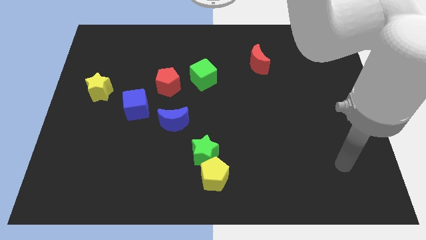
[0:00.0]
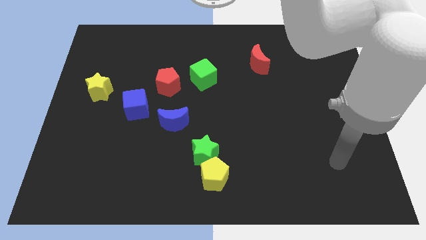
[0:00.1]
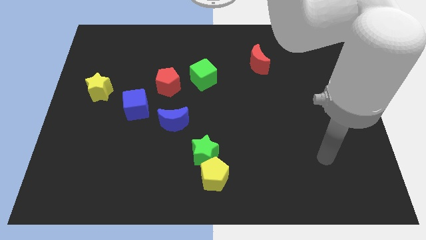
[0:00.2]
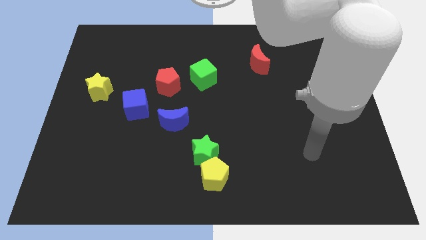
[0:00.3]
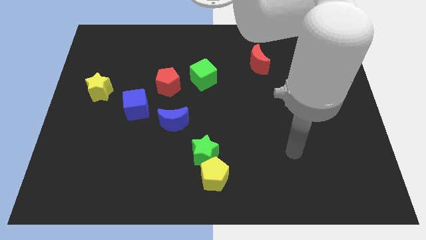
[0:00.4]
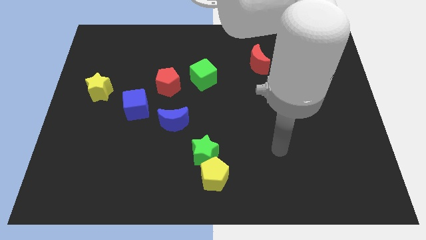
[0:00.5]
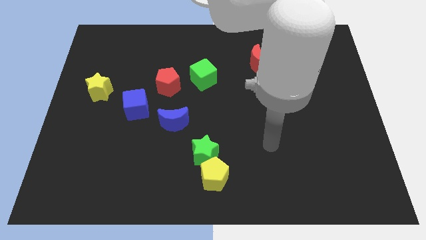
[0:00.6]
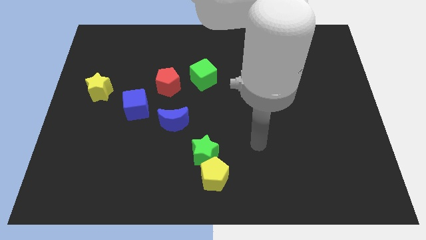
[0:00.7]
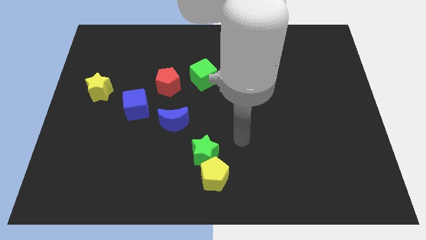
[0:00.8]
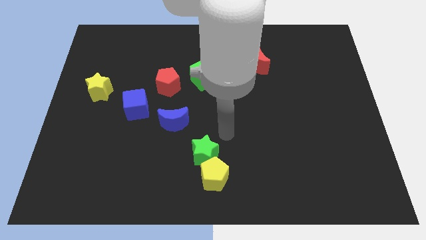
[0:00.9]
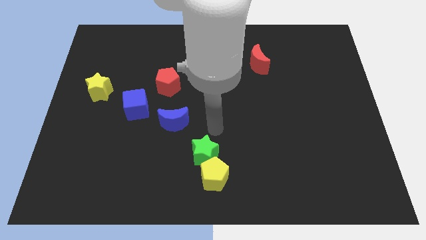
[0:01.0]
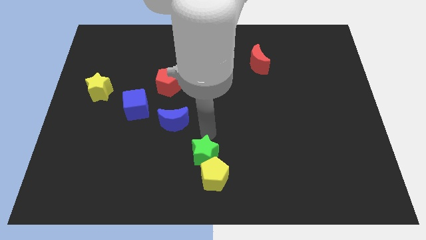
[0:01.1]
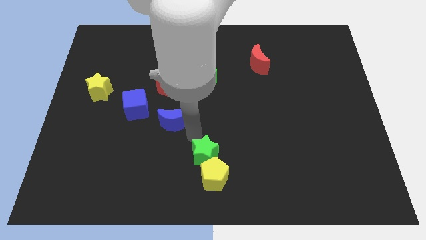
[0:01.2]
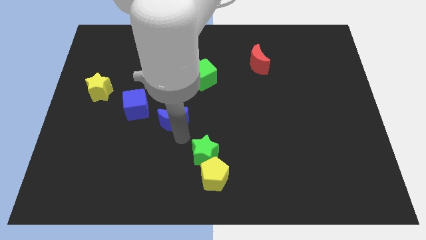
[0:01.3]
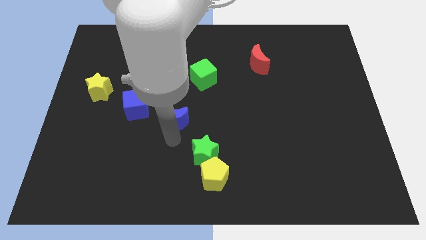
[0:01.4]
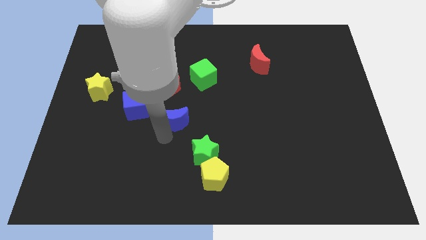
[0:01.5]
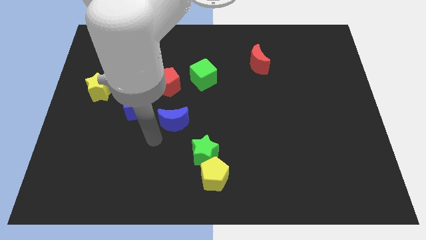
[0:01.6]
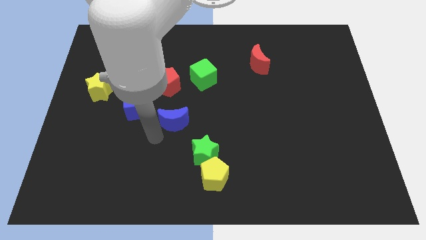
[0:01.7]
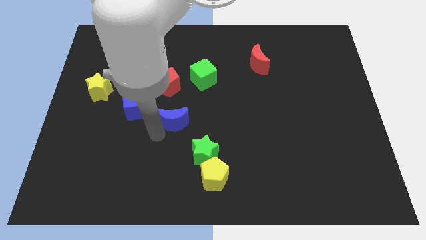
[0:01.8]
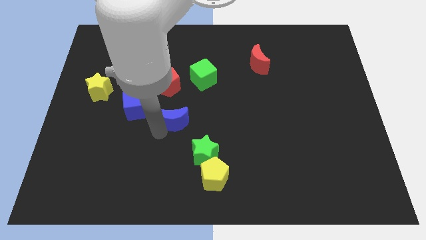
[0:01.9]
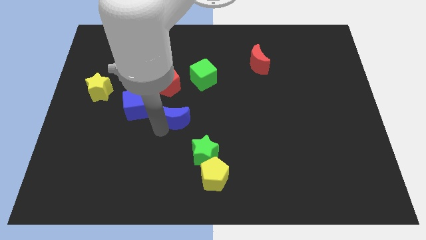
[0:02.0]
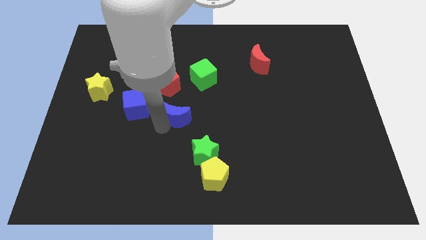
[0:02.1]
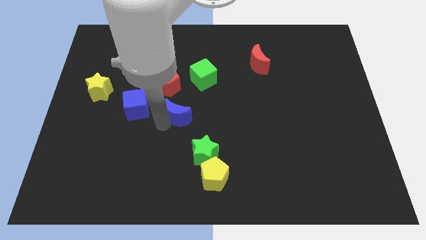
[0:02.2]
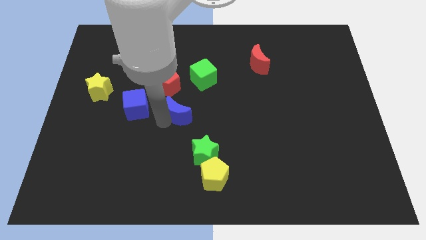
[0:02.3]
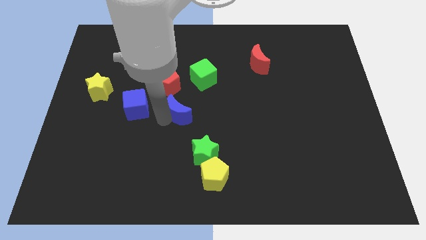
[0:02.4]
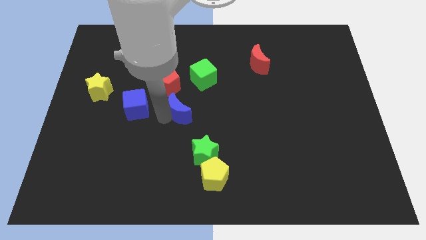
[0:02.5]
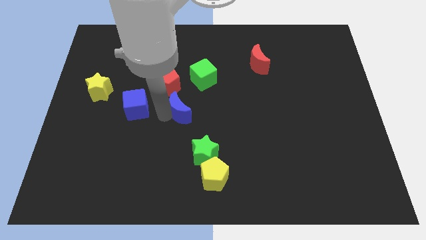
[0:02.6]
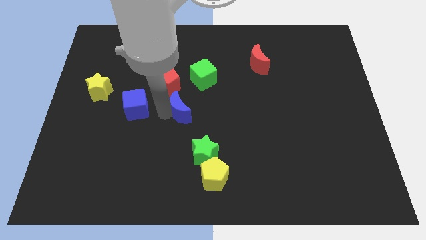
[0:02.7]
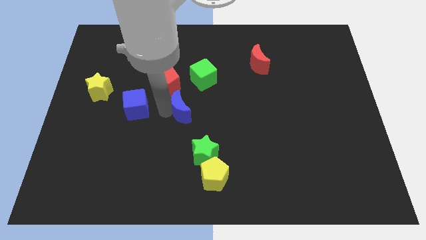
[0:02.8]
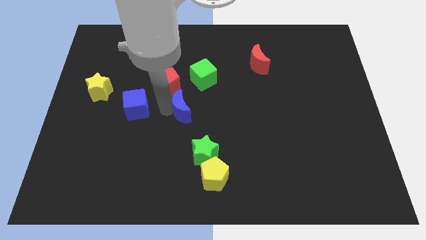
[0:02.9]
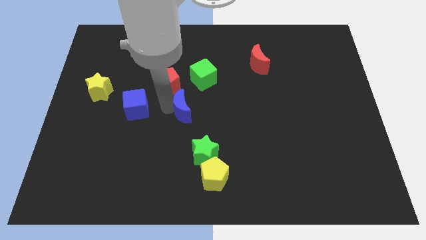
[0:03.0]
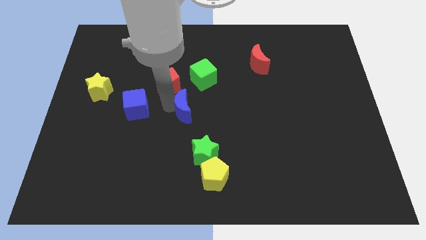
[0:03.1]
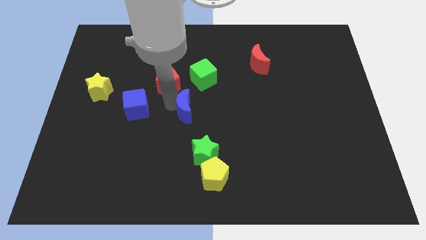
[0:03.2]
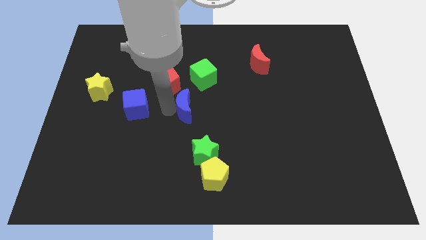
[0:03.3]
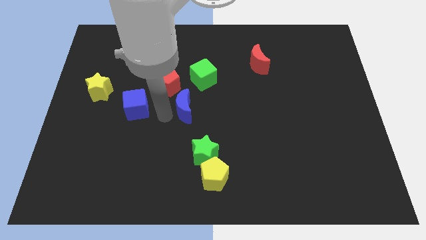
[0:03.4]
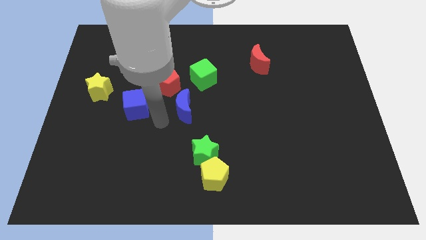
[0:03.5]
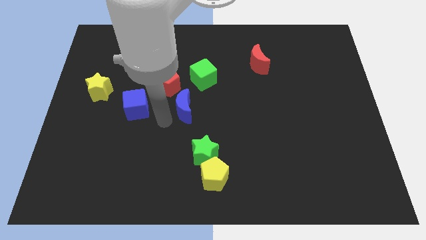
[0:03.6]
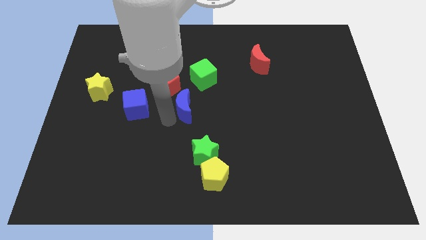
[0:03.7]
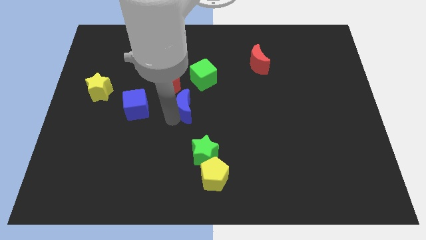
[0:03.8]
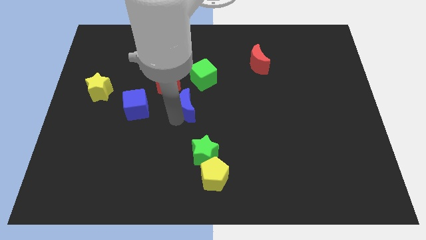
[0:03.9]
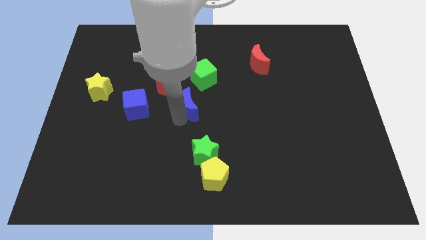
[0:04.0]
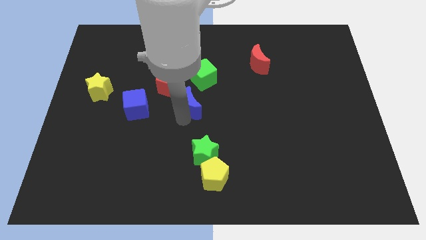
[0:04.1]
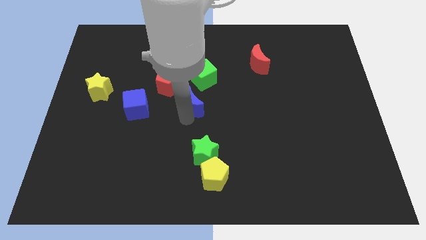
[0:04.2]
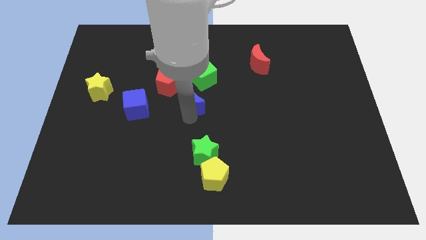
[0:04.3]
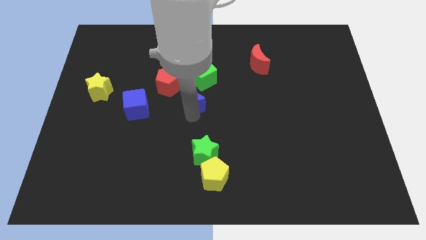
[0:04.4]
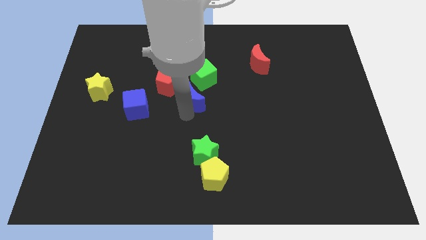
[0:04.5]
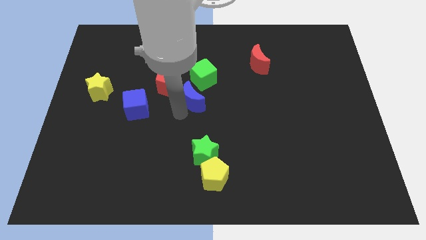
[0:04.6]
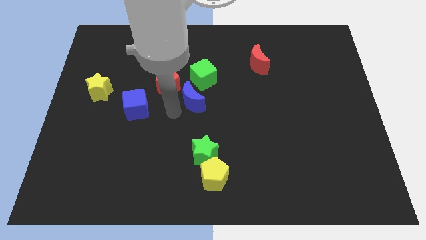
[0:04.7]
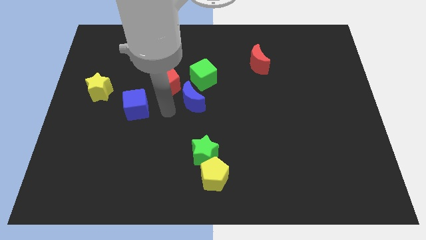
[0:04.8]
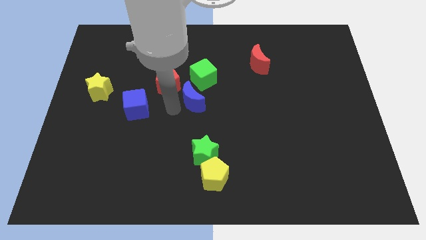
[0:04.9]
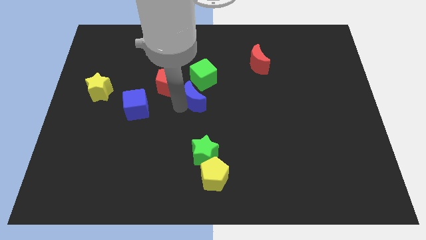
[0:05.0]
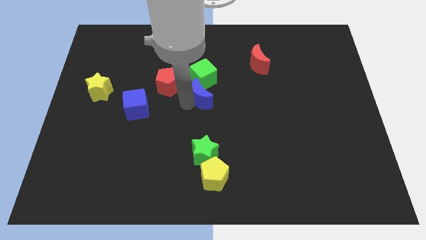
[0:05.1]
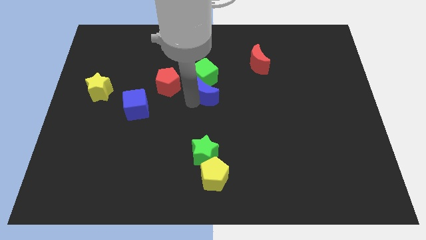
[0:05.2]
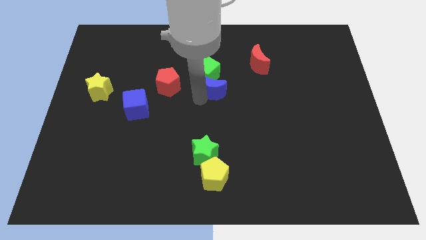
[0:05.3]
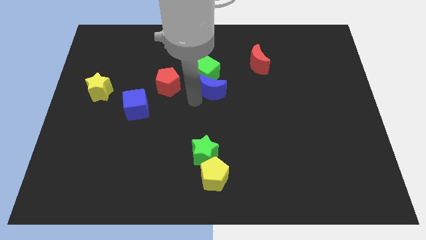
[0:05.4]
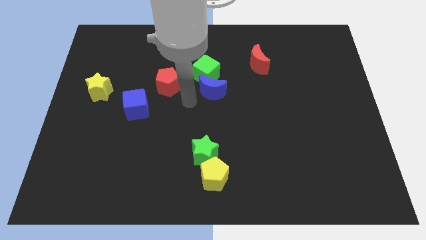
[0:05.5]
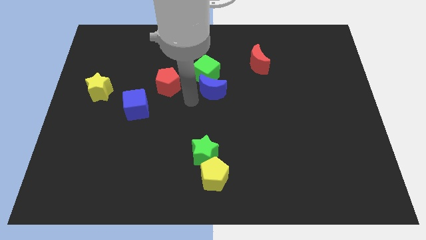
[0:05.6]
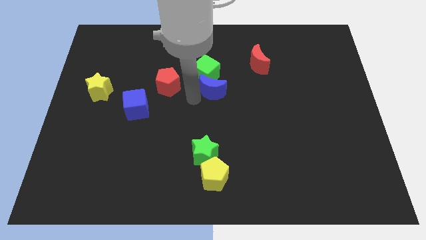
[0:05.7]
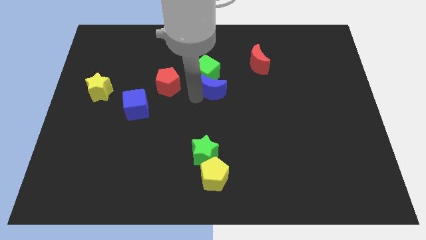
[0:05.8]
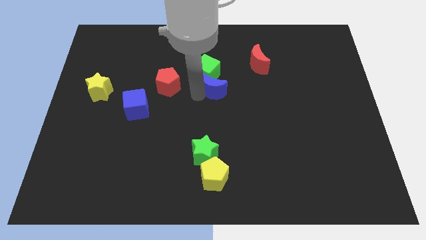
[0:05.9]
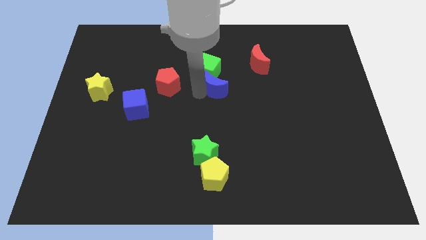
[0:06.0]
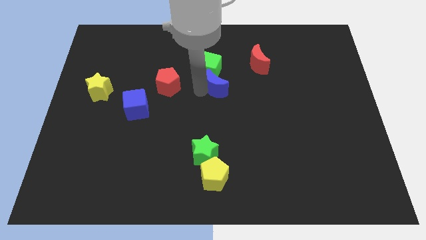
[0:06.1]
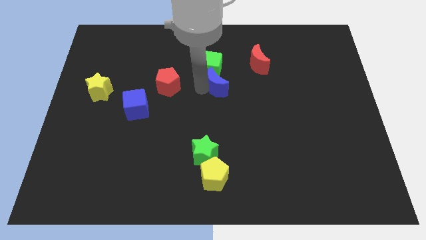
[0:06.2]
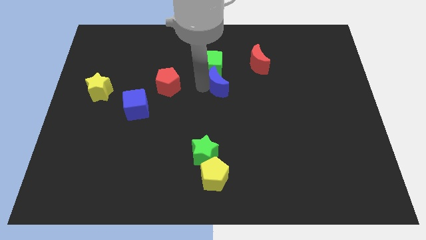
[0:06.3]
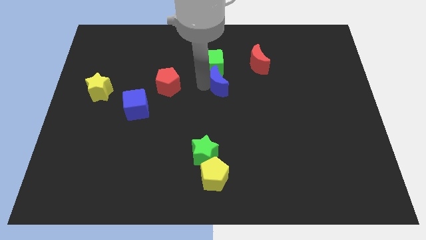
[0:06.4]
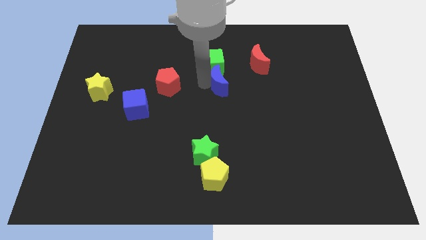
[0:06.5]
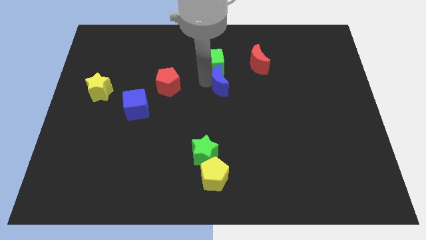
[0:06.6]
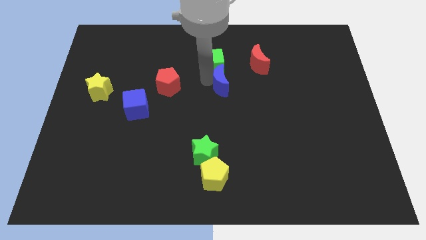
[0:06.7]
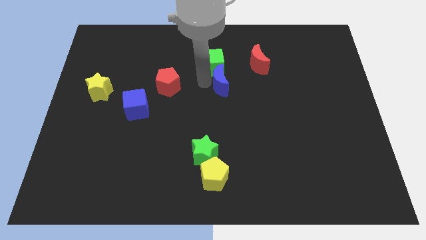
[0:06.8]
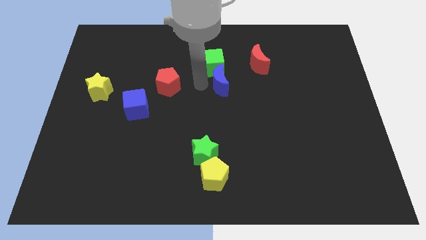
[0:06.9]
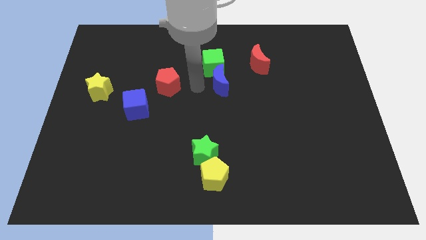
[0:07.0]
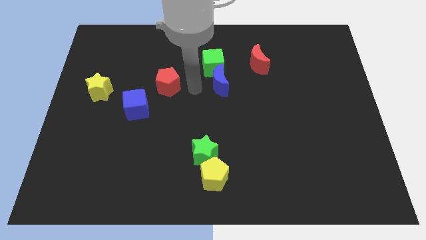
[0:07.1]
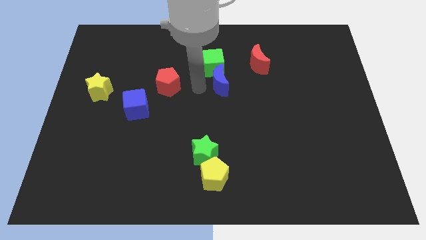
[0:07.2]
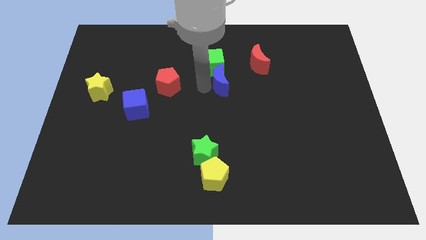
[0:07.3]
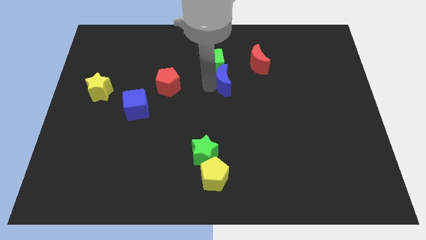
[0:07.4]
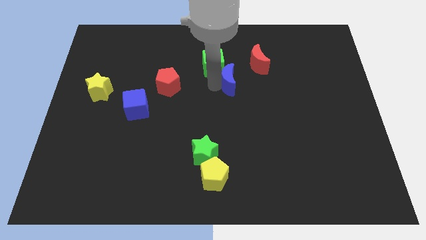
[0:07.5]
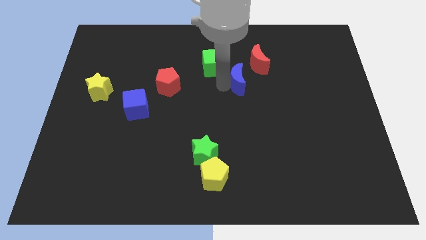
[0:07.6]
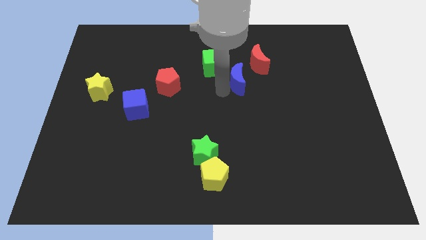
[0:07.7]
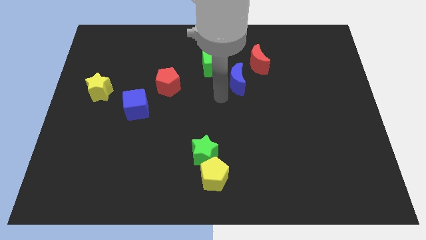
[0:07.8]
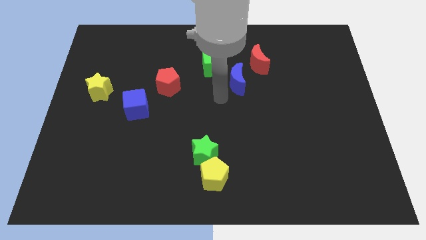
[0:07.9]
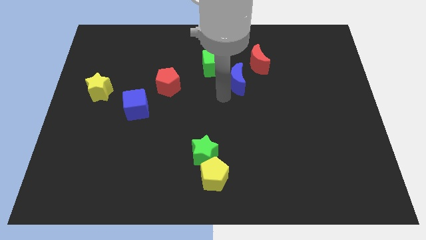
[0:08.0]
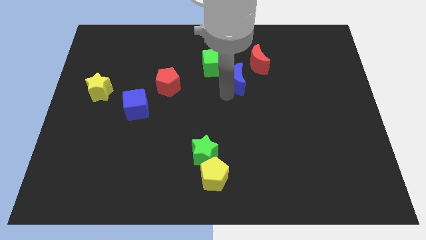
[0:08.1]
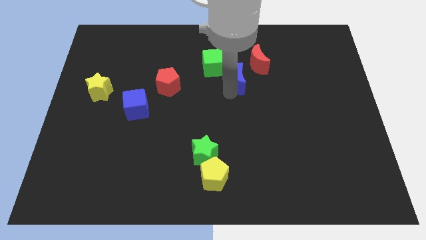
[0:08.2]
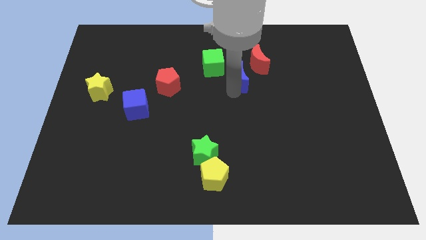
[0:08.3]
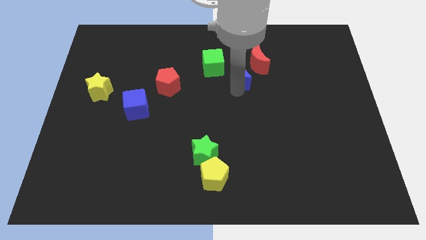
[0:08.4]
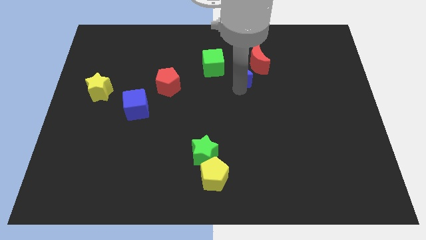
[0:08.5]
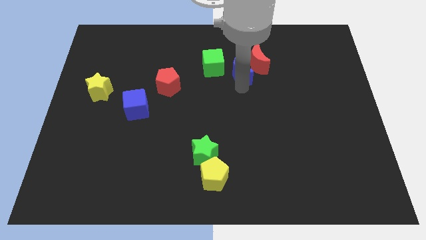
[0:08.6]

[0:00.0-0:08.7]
move the blue moon towards the red moon
